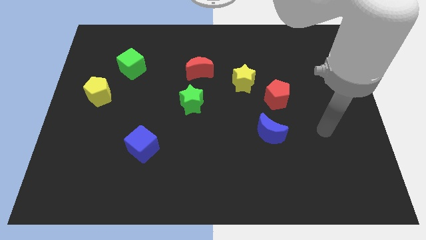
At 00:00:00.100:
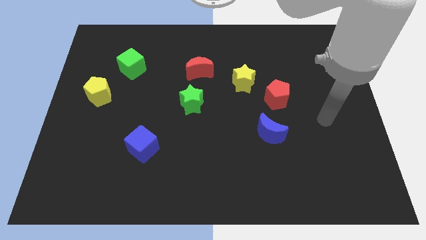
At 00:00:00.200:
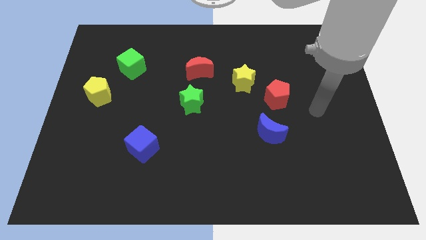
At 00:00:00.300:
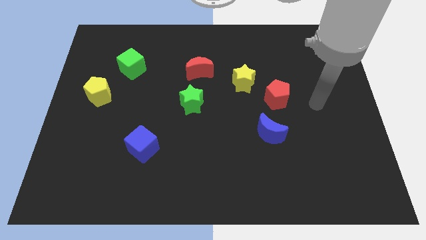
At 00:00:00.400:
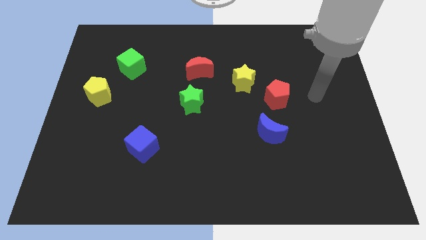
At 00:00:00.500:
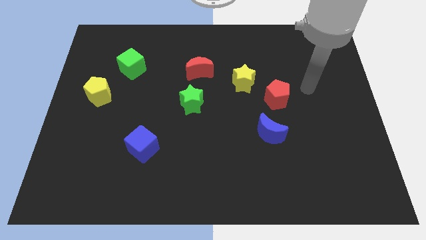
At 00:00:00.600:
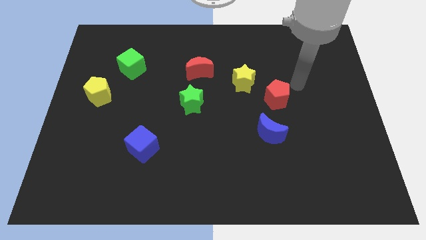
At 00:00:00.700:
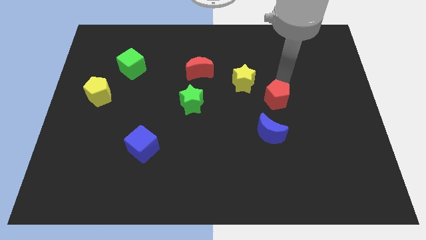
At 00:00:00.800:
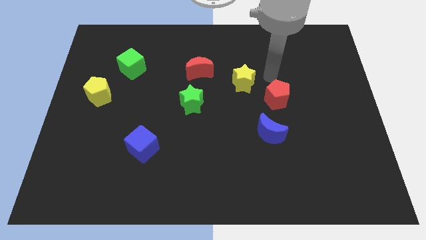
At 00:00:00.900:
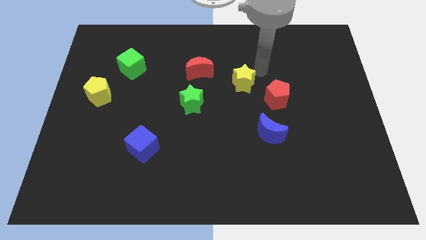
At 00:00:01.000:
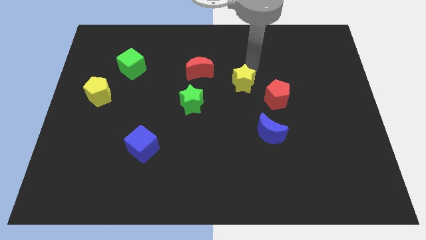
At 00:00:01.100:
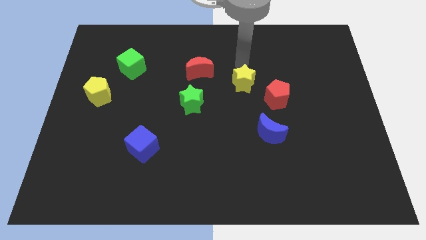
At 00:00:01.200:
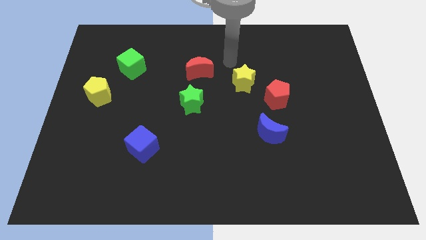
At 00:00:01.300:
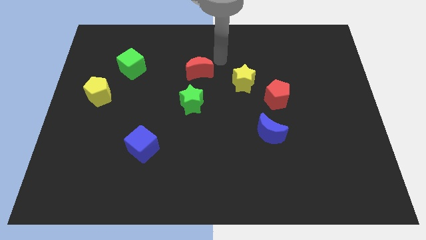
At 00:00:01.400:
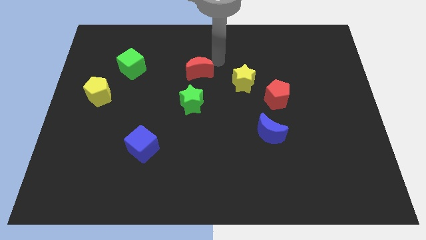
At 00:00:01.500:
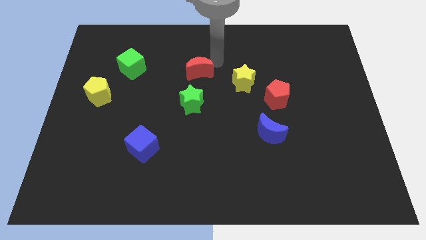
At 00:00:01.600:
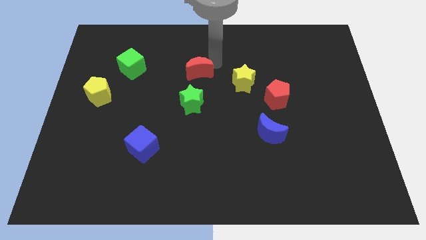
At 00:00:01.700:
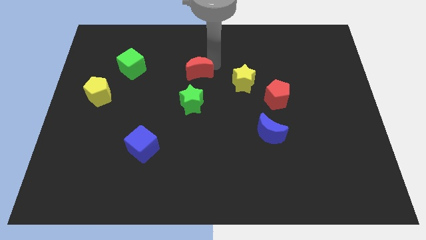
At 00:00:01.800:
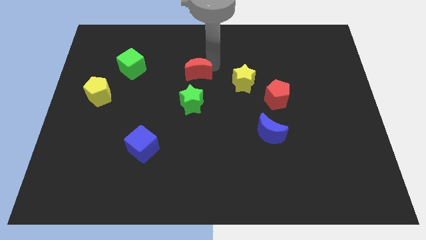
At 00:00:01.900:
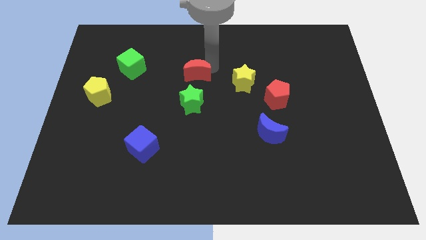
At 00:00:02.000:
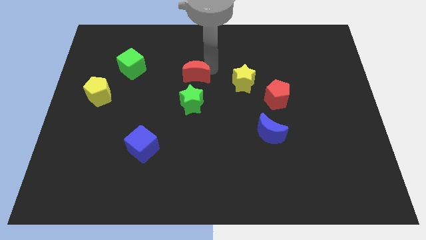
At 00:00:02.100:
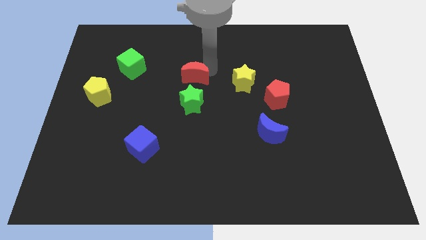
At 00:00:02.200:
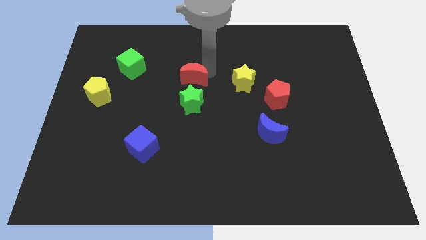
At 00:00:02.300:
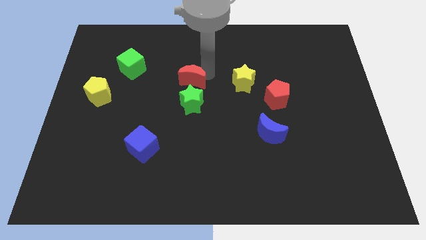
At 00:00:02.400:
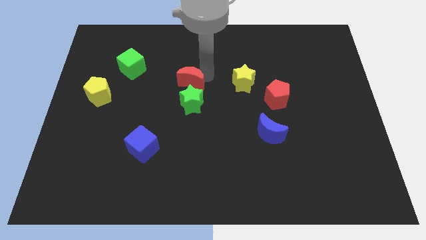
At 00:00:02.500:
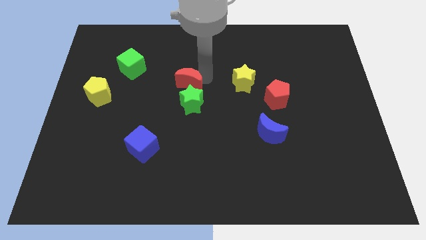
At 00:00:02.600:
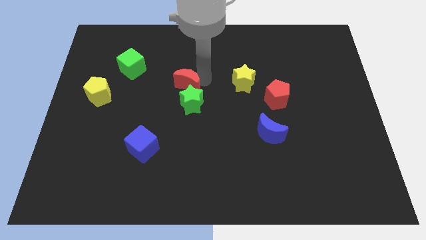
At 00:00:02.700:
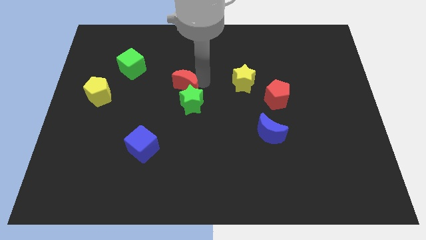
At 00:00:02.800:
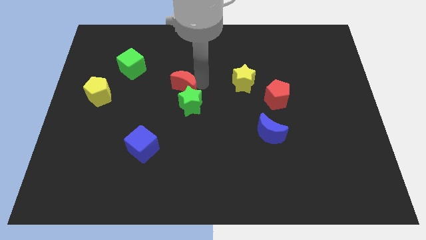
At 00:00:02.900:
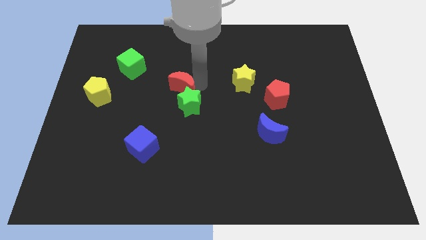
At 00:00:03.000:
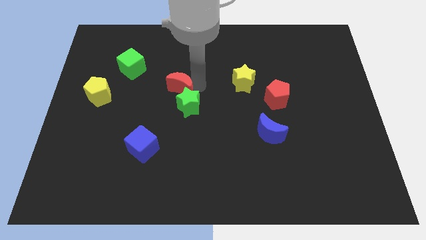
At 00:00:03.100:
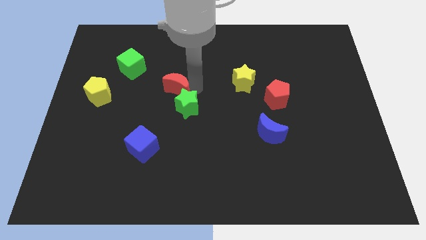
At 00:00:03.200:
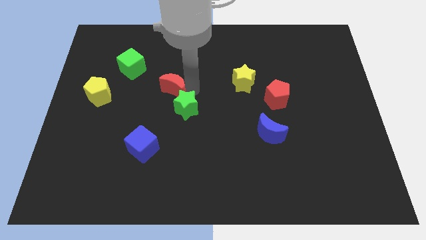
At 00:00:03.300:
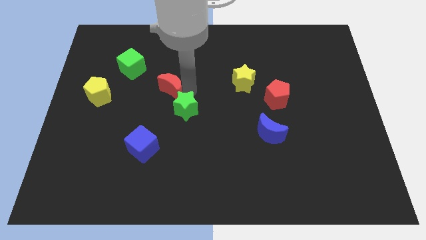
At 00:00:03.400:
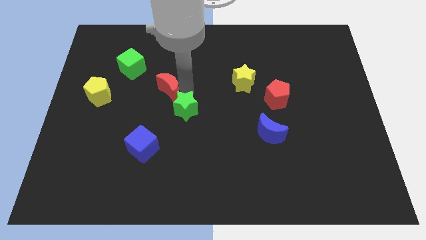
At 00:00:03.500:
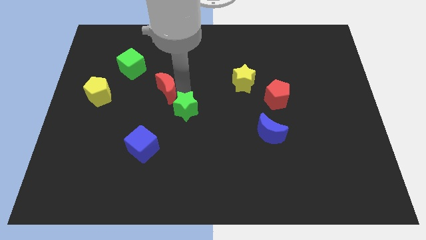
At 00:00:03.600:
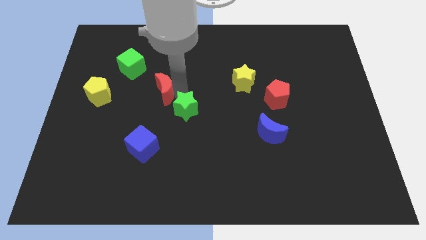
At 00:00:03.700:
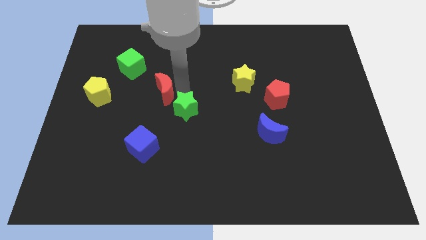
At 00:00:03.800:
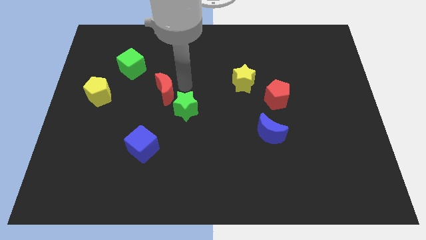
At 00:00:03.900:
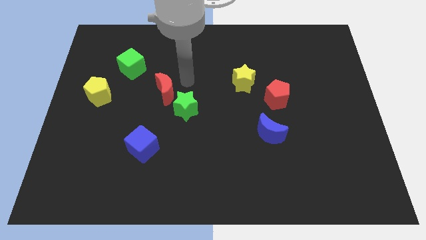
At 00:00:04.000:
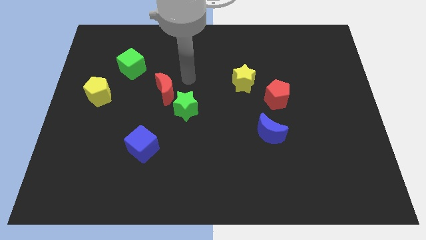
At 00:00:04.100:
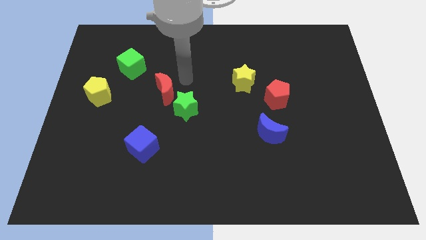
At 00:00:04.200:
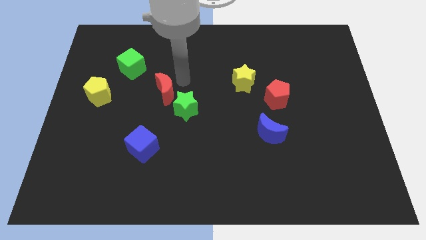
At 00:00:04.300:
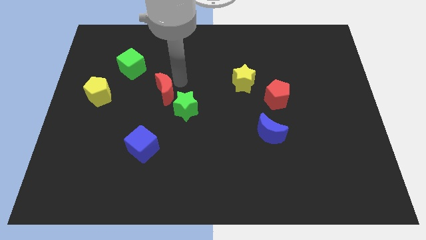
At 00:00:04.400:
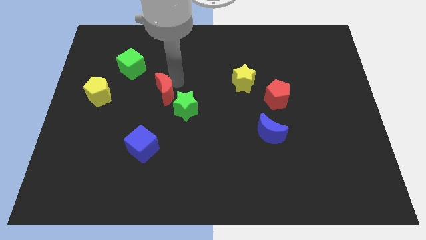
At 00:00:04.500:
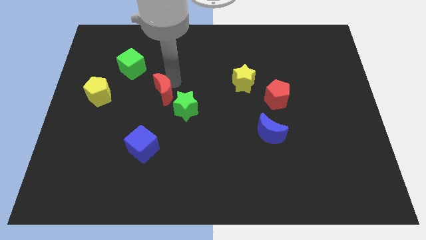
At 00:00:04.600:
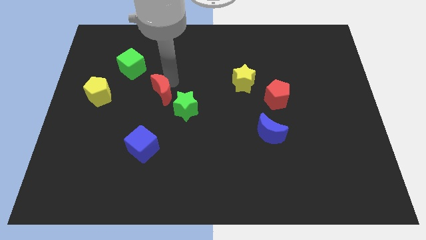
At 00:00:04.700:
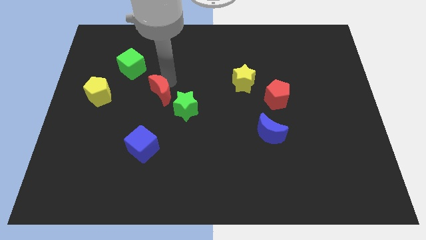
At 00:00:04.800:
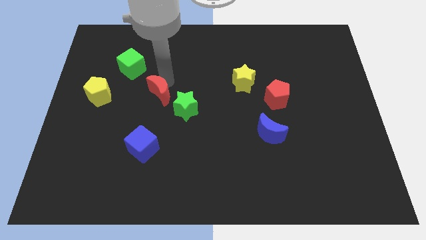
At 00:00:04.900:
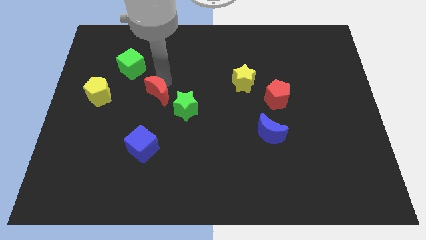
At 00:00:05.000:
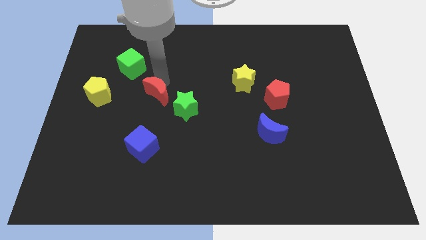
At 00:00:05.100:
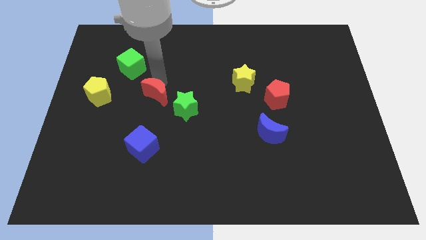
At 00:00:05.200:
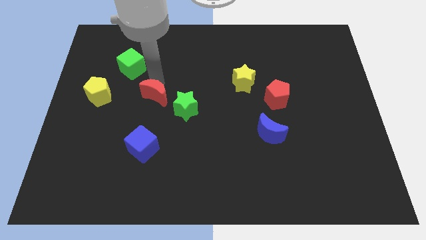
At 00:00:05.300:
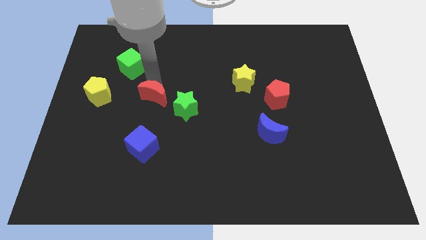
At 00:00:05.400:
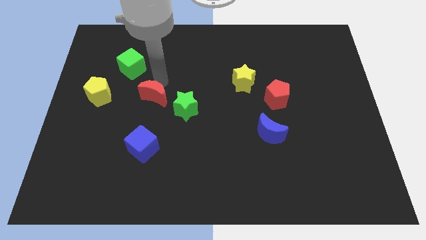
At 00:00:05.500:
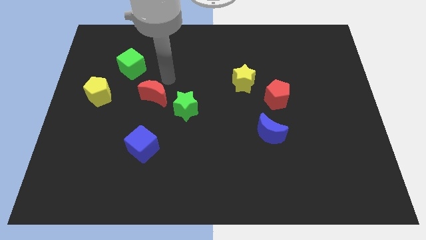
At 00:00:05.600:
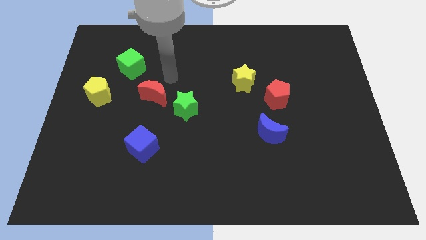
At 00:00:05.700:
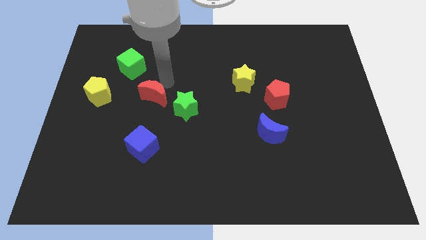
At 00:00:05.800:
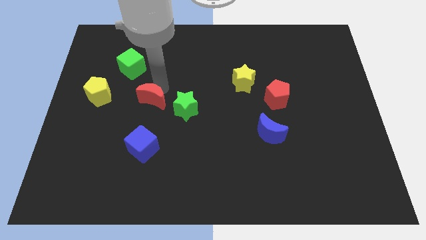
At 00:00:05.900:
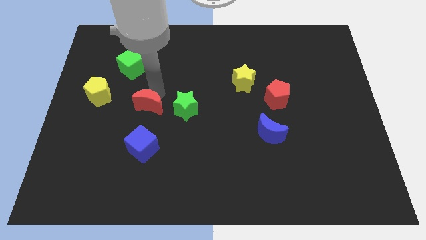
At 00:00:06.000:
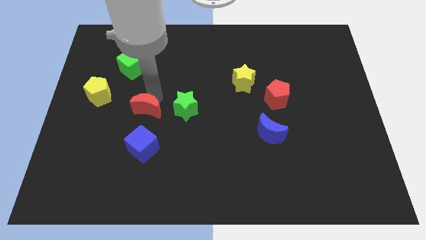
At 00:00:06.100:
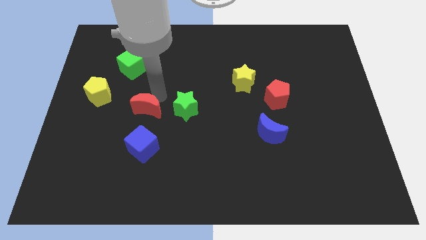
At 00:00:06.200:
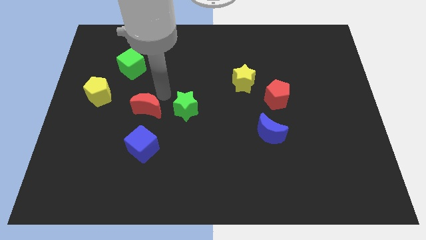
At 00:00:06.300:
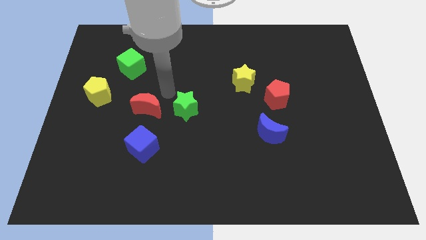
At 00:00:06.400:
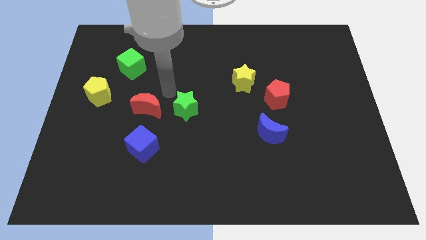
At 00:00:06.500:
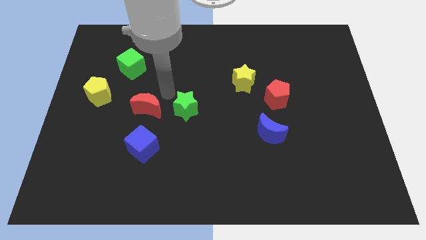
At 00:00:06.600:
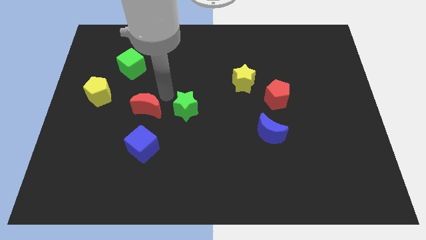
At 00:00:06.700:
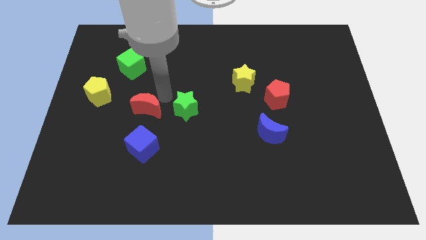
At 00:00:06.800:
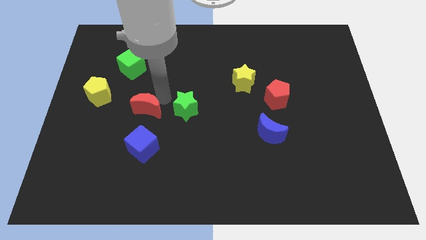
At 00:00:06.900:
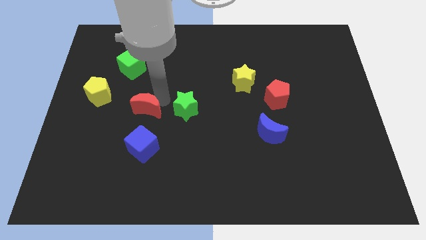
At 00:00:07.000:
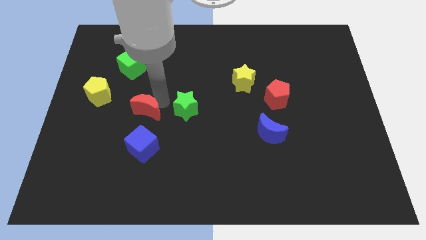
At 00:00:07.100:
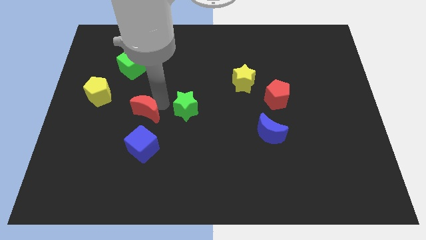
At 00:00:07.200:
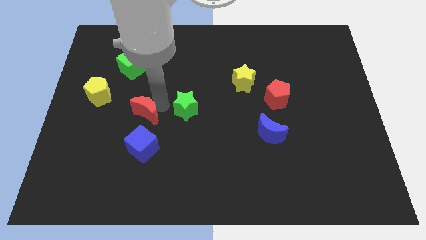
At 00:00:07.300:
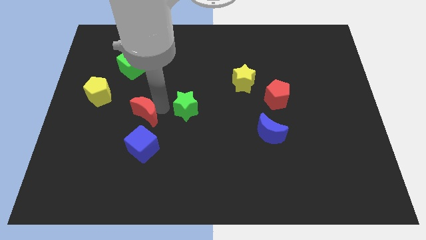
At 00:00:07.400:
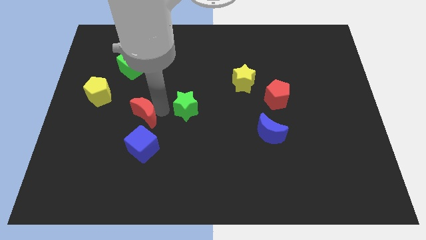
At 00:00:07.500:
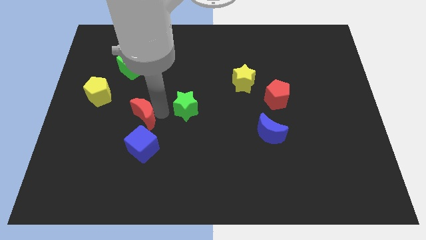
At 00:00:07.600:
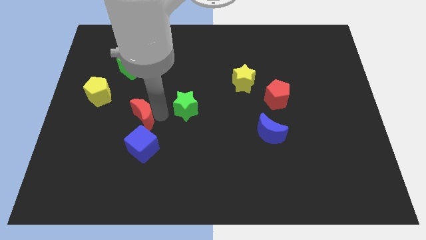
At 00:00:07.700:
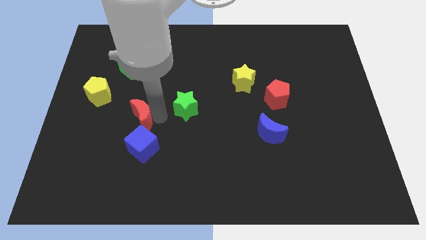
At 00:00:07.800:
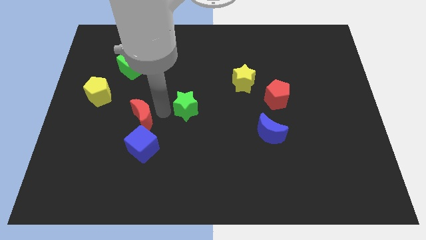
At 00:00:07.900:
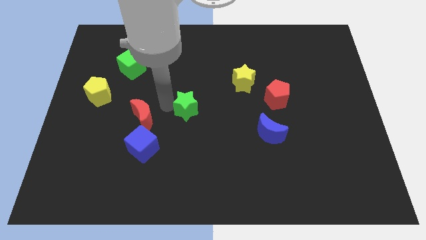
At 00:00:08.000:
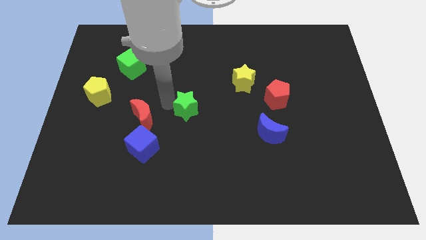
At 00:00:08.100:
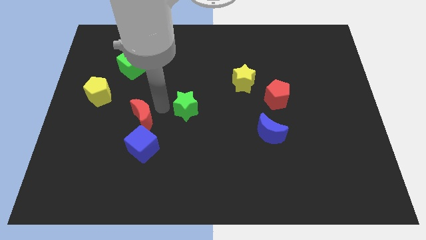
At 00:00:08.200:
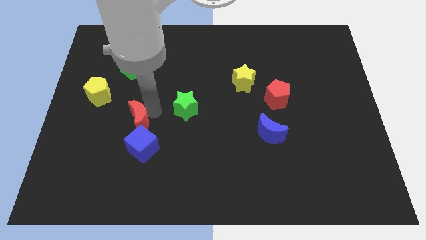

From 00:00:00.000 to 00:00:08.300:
push the red moon down and then to the left
